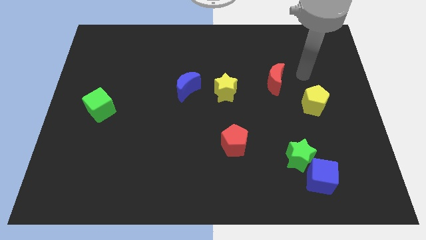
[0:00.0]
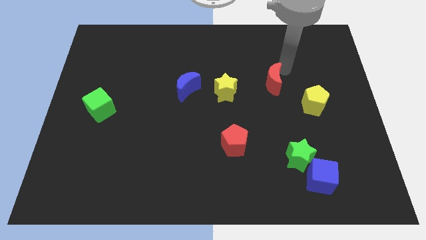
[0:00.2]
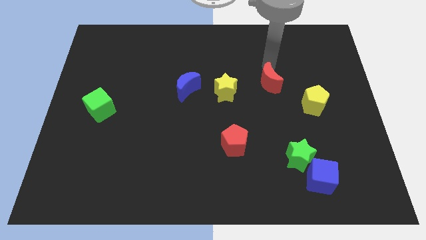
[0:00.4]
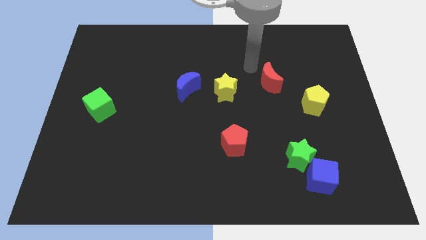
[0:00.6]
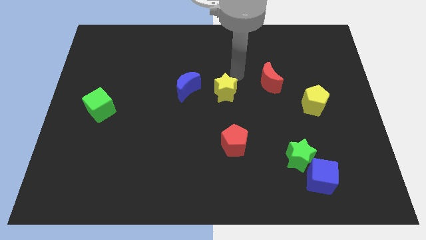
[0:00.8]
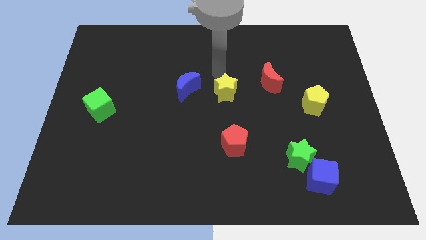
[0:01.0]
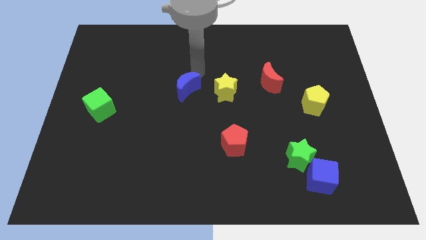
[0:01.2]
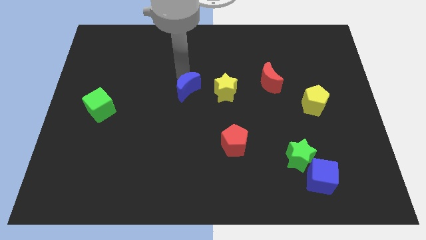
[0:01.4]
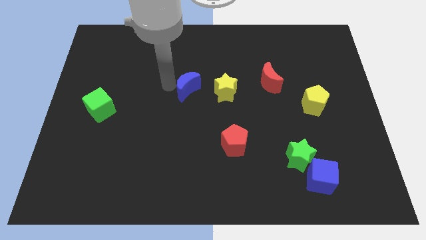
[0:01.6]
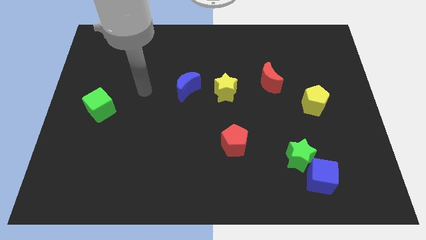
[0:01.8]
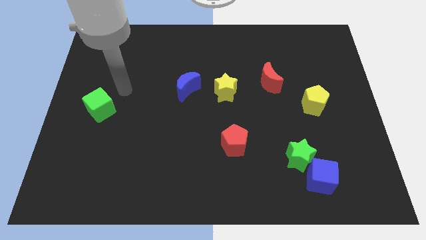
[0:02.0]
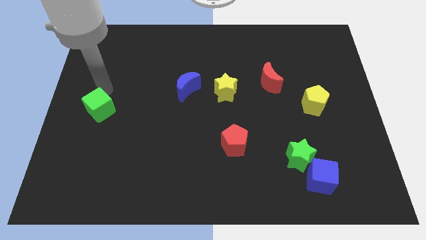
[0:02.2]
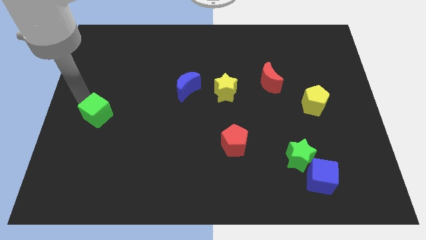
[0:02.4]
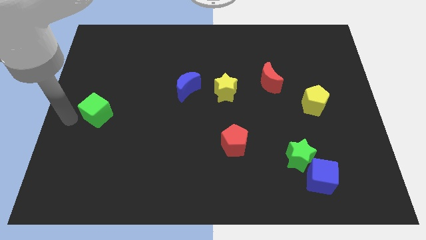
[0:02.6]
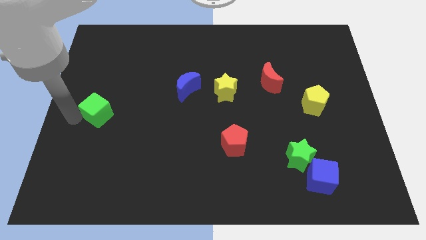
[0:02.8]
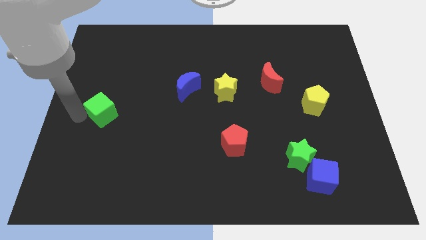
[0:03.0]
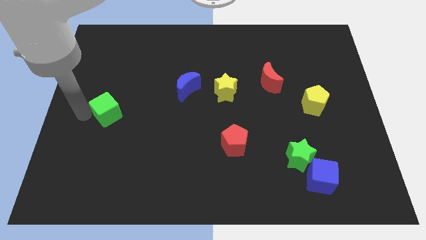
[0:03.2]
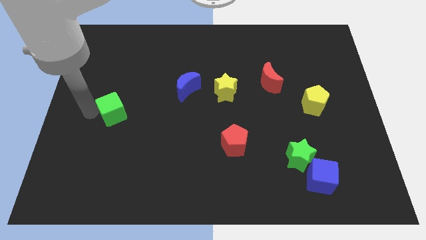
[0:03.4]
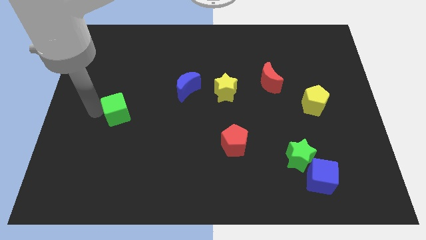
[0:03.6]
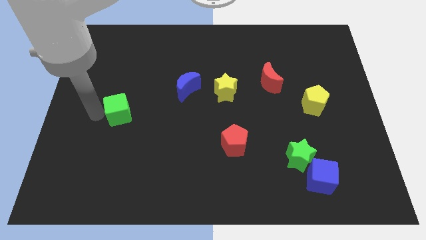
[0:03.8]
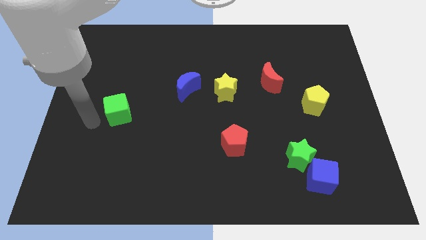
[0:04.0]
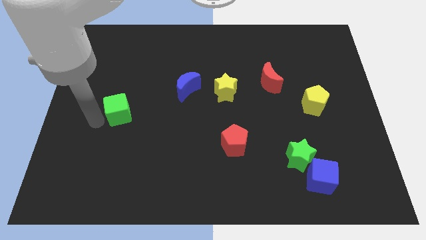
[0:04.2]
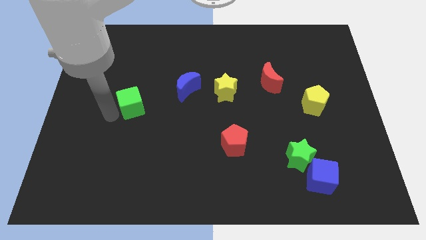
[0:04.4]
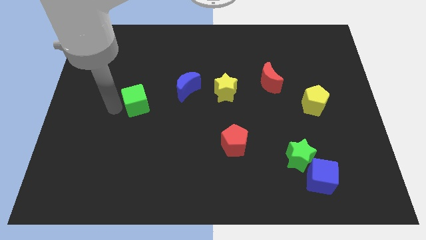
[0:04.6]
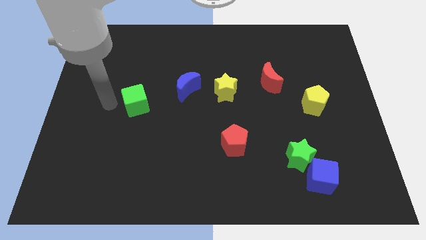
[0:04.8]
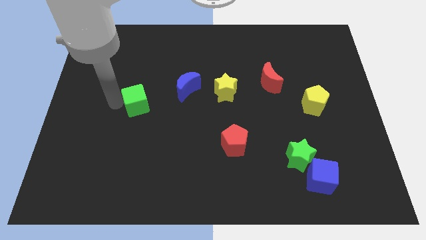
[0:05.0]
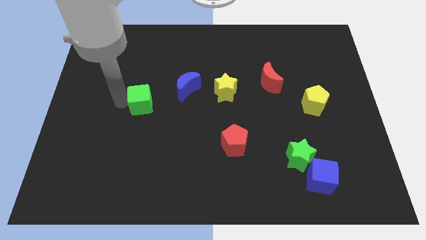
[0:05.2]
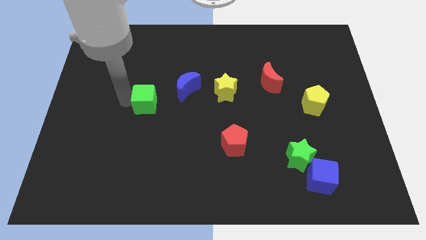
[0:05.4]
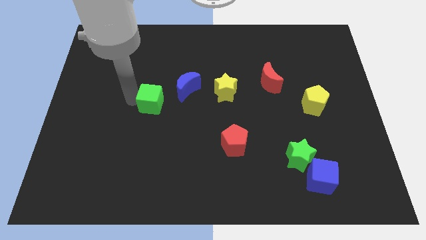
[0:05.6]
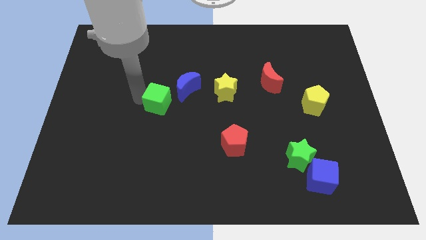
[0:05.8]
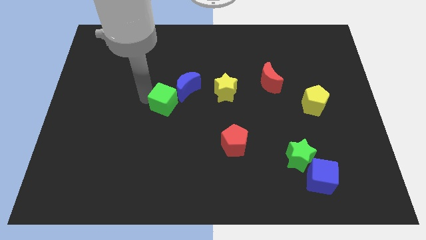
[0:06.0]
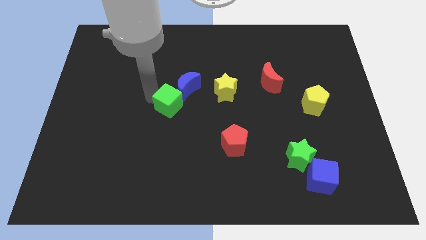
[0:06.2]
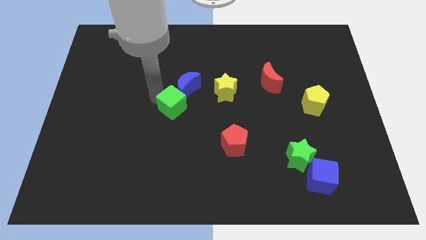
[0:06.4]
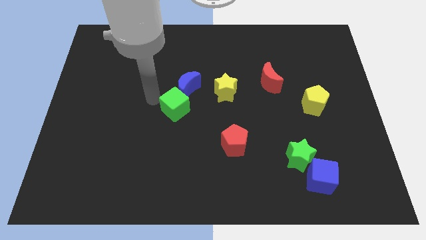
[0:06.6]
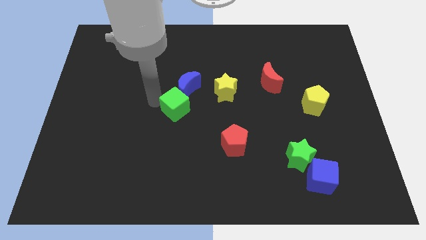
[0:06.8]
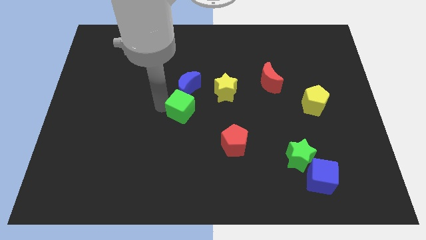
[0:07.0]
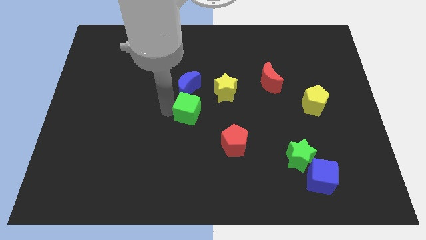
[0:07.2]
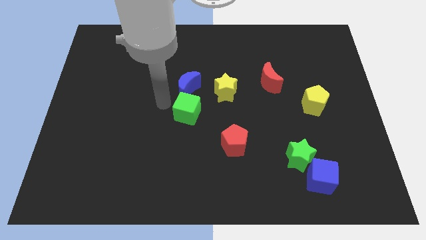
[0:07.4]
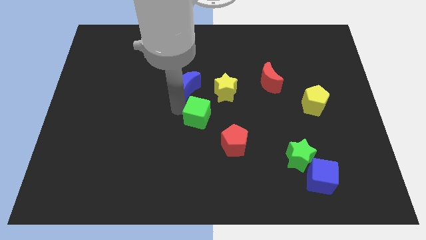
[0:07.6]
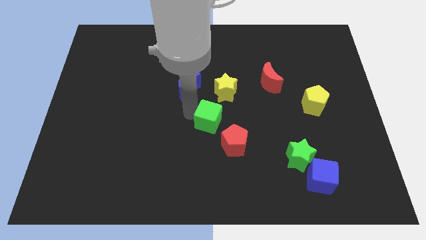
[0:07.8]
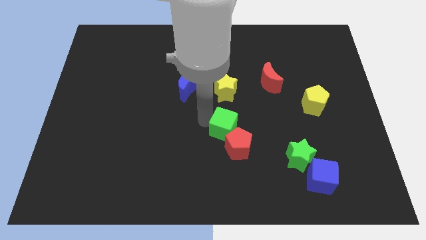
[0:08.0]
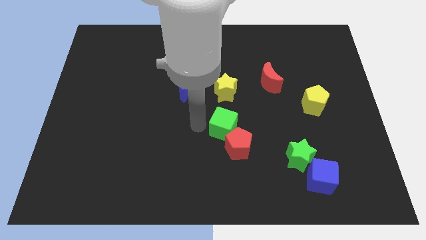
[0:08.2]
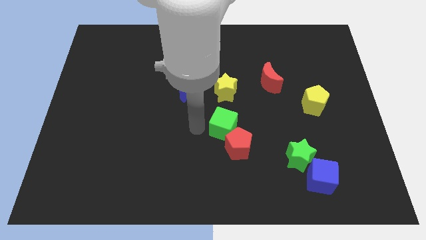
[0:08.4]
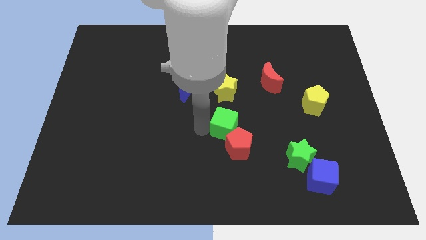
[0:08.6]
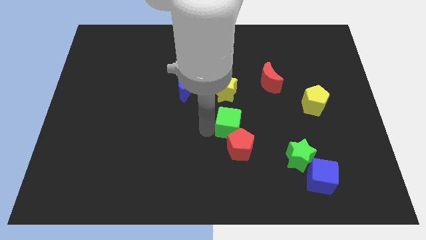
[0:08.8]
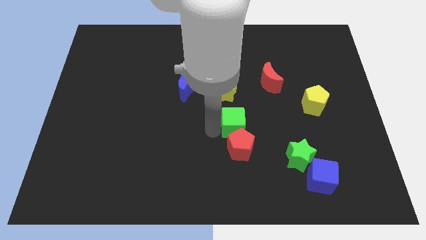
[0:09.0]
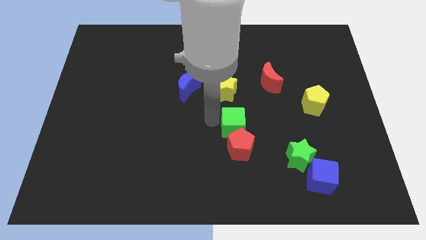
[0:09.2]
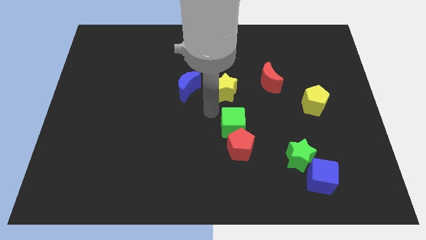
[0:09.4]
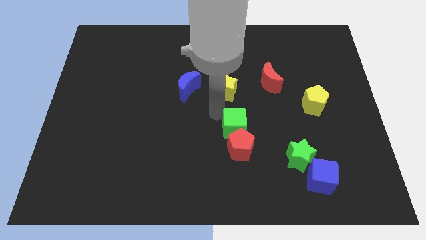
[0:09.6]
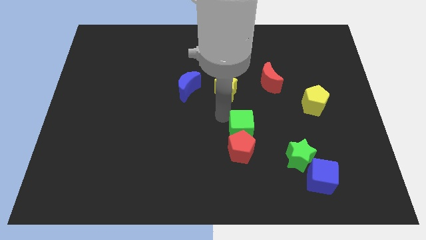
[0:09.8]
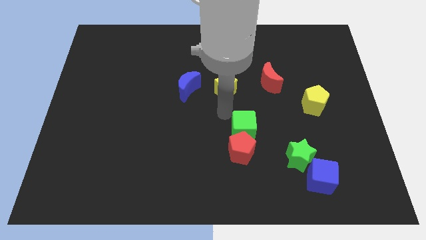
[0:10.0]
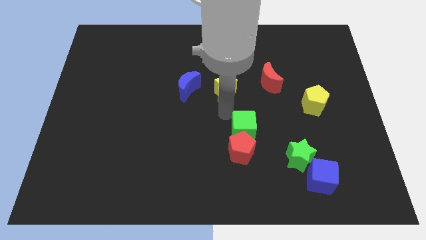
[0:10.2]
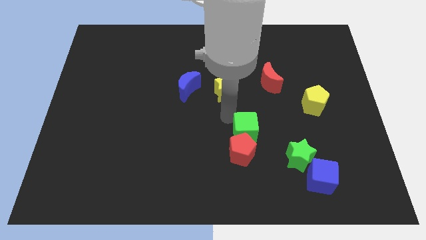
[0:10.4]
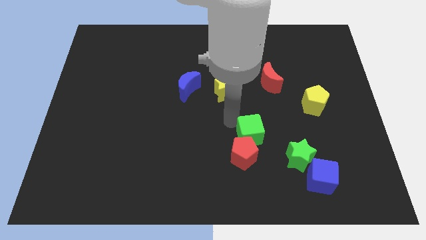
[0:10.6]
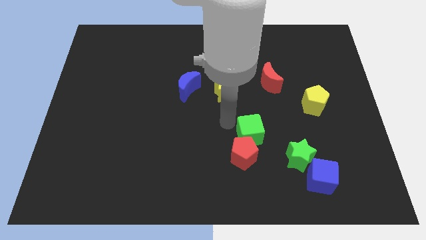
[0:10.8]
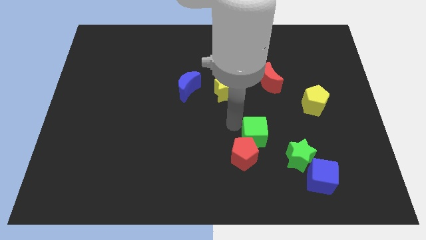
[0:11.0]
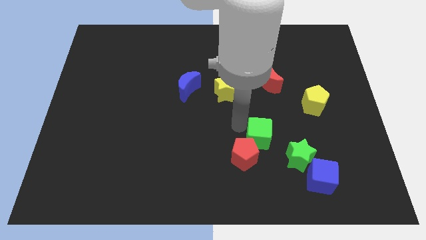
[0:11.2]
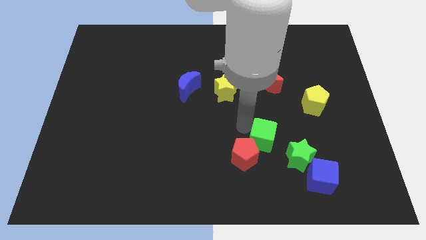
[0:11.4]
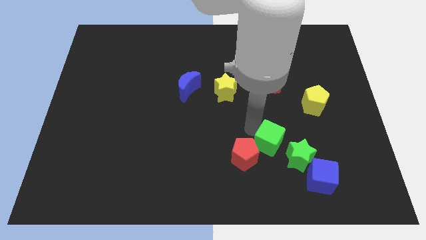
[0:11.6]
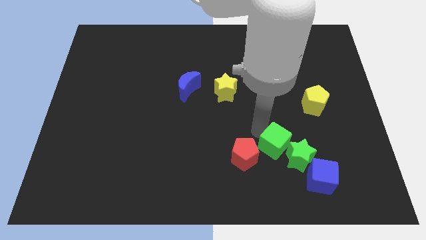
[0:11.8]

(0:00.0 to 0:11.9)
slide the green cube towards the green star
